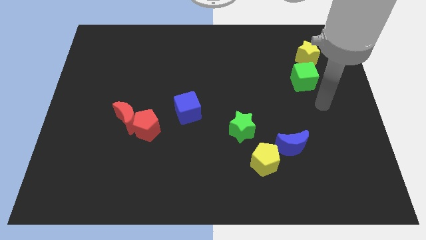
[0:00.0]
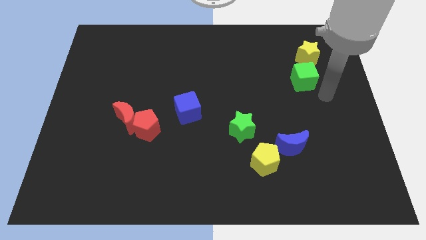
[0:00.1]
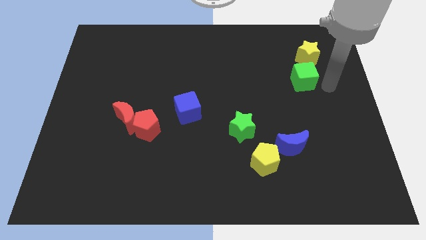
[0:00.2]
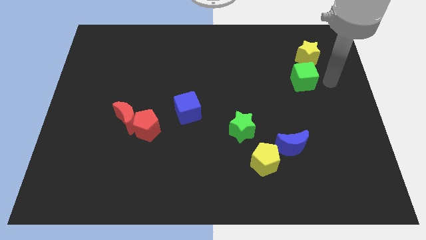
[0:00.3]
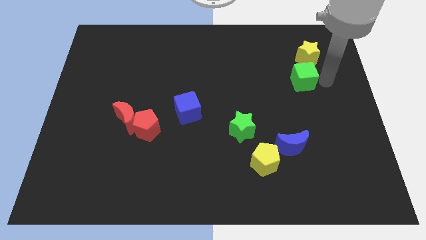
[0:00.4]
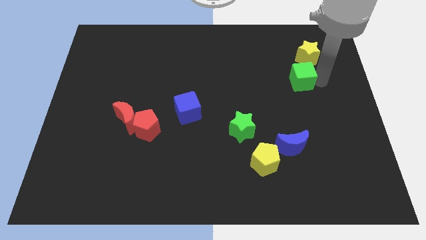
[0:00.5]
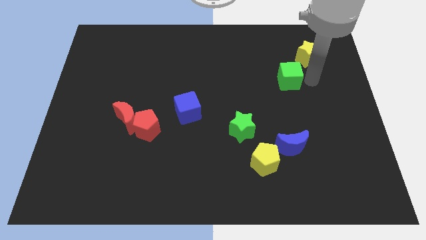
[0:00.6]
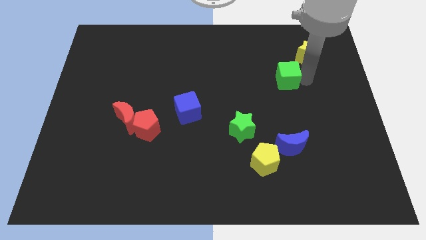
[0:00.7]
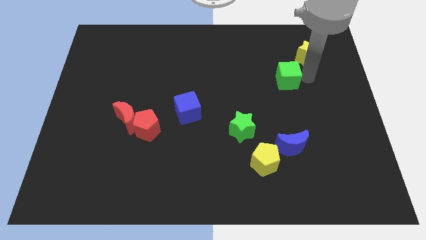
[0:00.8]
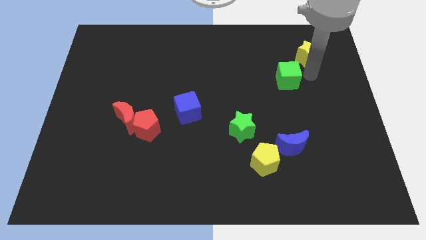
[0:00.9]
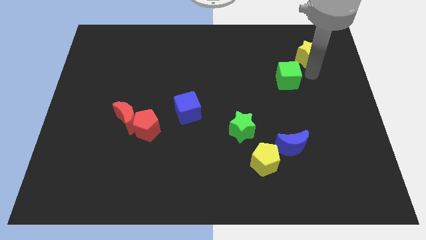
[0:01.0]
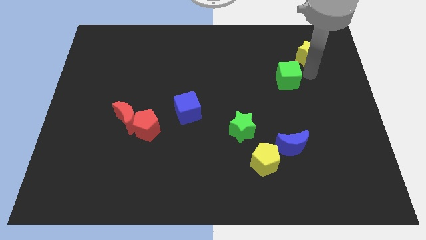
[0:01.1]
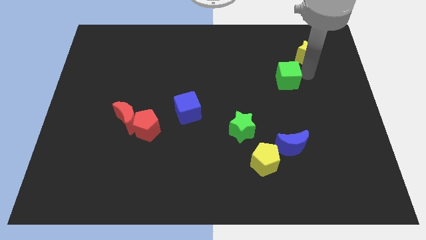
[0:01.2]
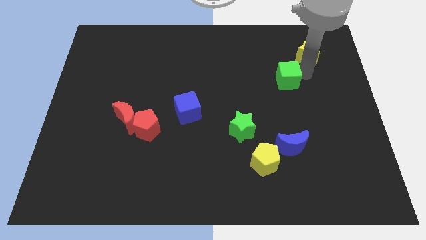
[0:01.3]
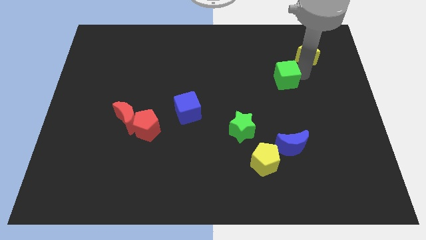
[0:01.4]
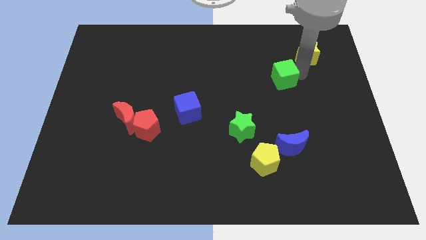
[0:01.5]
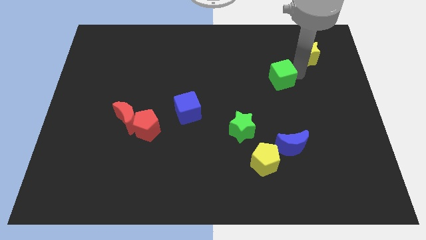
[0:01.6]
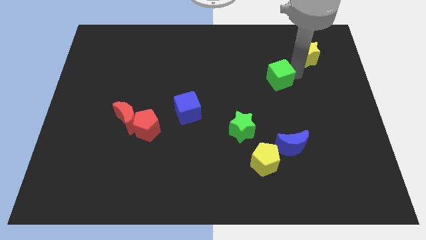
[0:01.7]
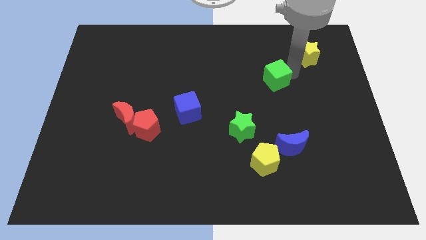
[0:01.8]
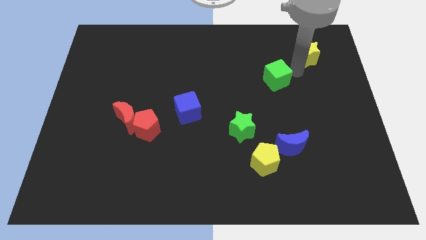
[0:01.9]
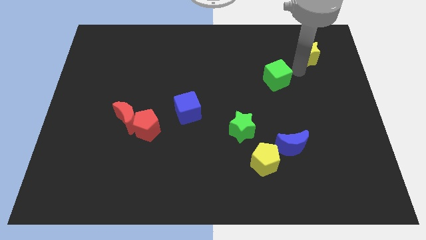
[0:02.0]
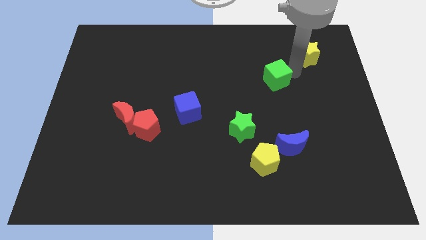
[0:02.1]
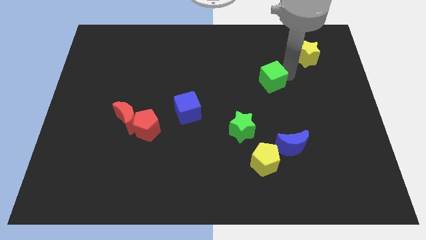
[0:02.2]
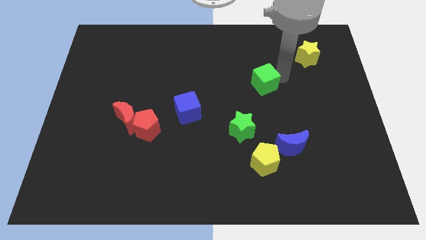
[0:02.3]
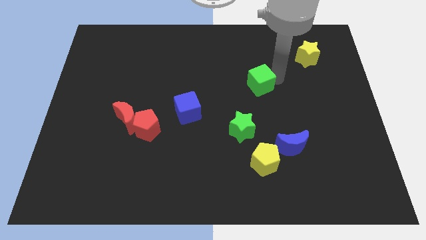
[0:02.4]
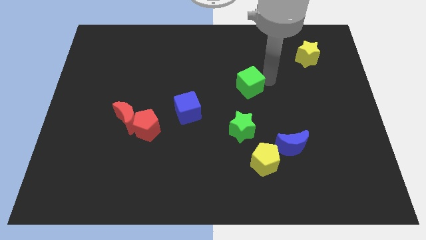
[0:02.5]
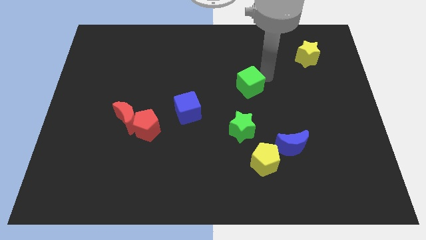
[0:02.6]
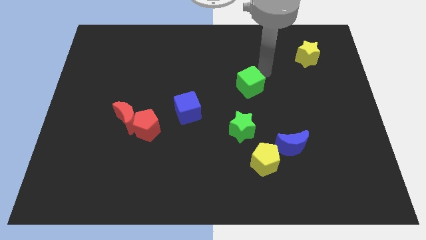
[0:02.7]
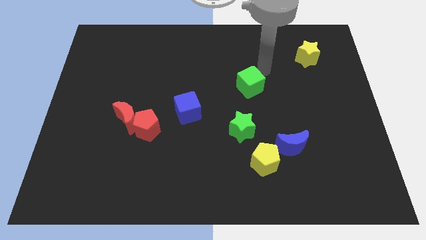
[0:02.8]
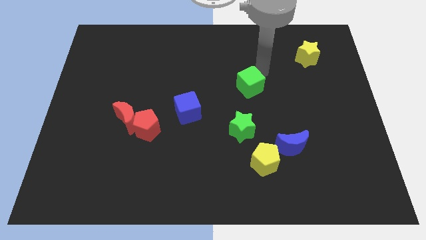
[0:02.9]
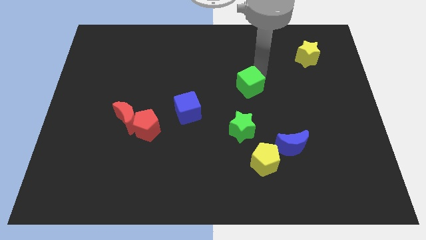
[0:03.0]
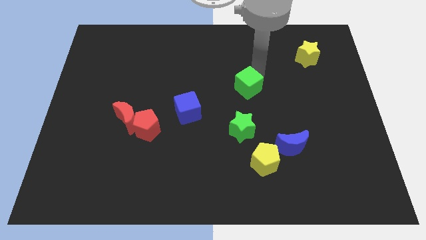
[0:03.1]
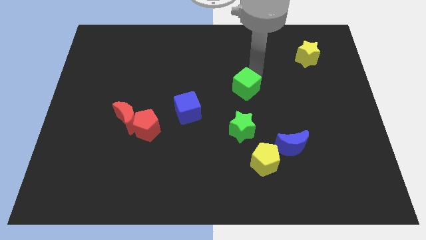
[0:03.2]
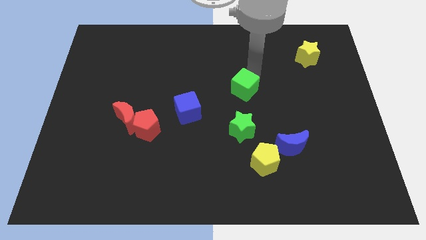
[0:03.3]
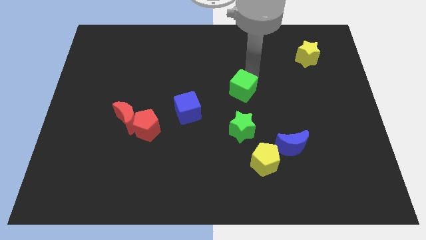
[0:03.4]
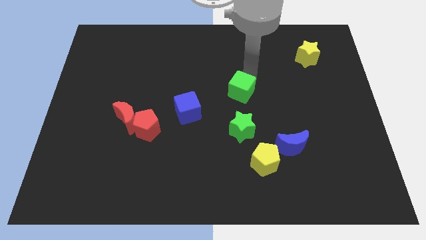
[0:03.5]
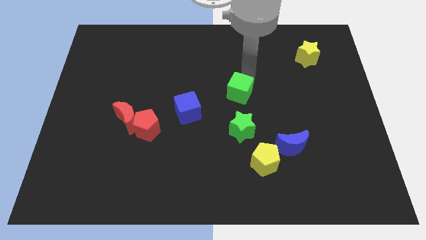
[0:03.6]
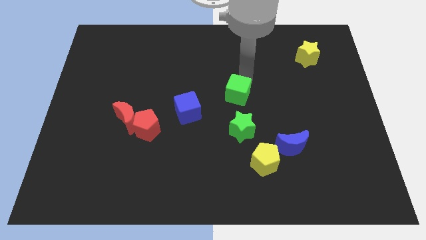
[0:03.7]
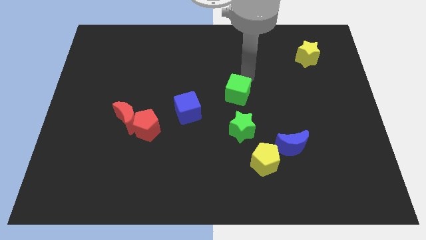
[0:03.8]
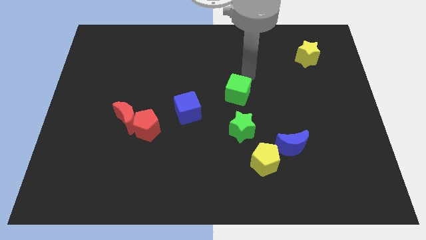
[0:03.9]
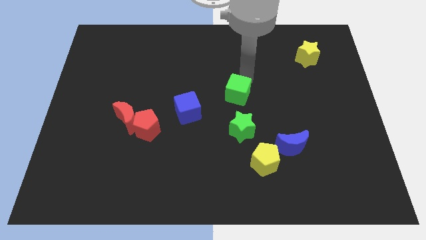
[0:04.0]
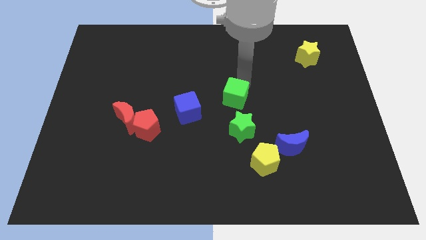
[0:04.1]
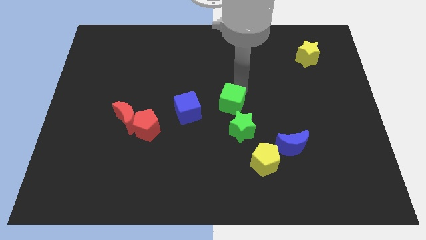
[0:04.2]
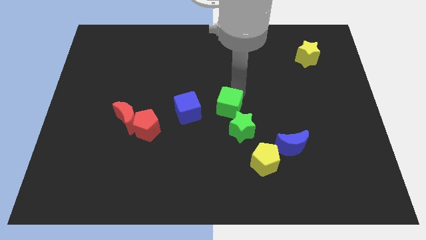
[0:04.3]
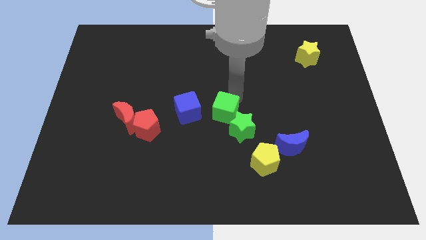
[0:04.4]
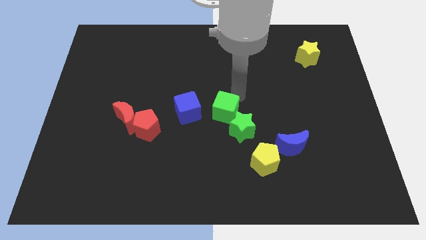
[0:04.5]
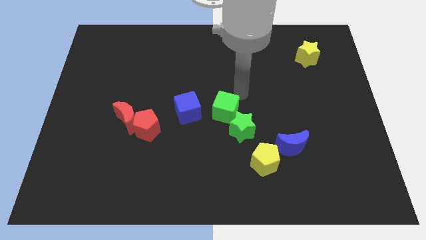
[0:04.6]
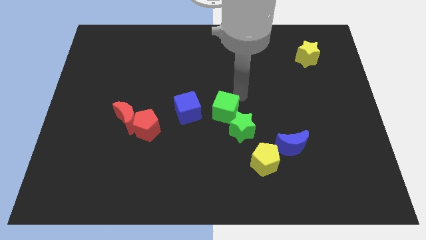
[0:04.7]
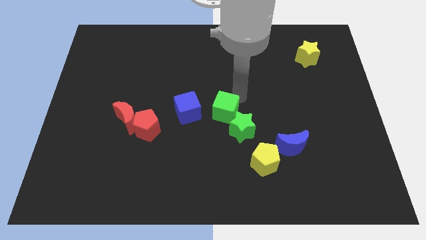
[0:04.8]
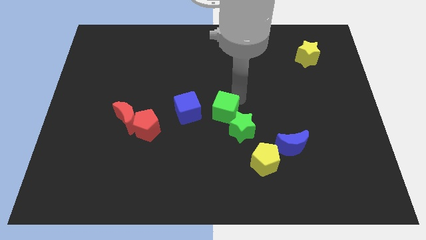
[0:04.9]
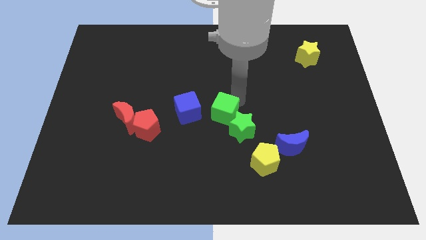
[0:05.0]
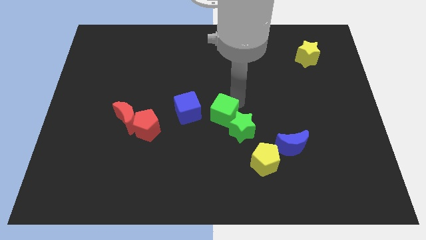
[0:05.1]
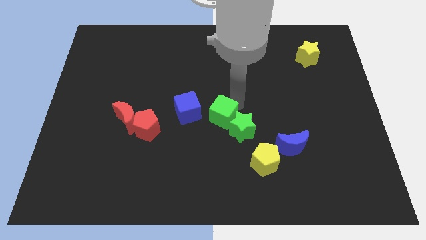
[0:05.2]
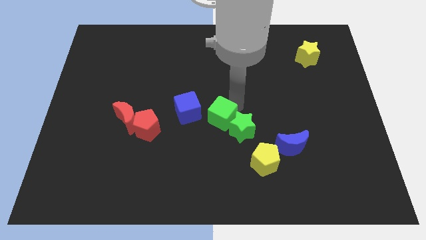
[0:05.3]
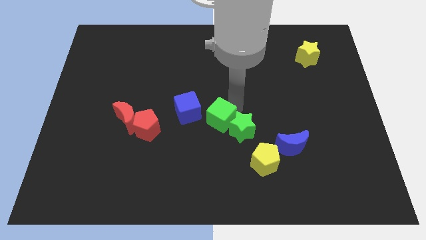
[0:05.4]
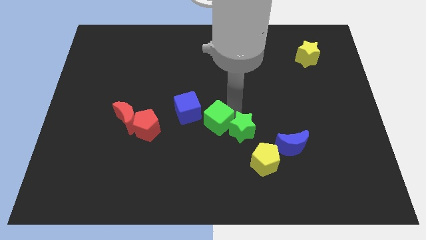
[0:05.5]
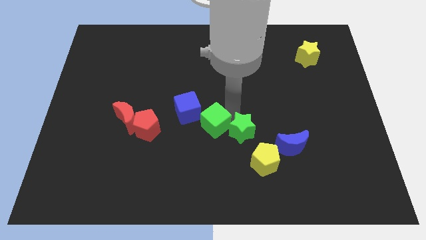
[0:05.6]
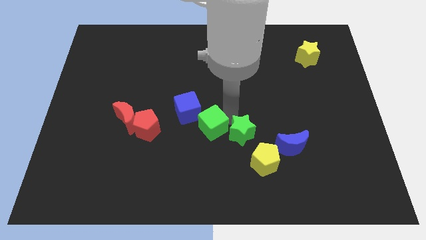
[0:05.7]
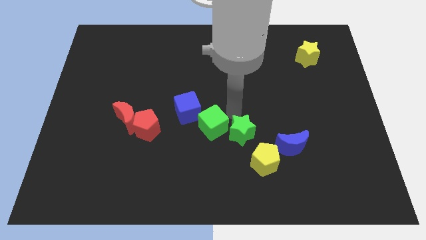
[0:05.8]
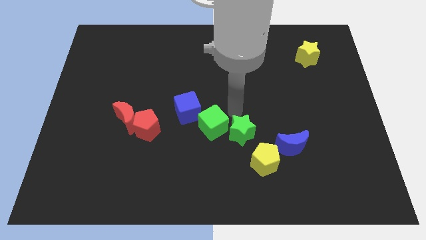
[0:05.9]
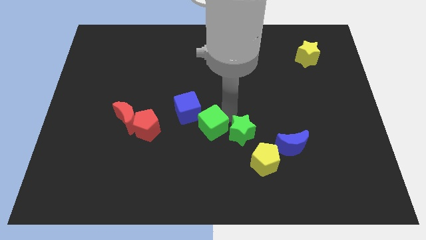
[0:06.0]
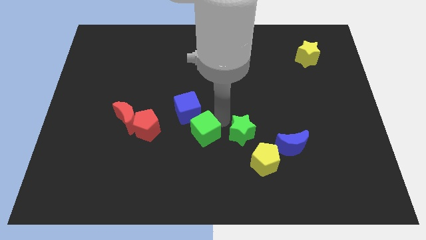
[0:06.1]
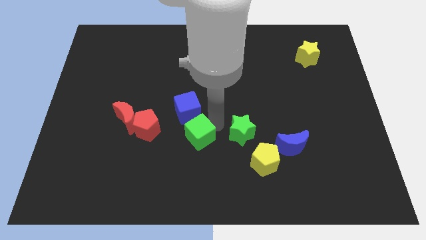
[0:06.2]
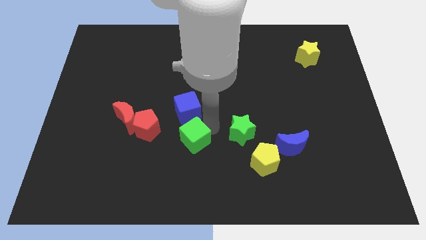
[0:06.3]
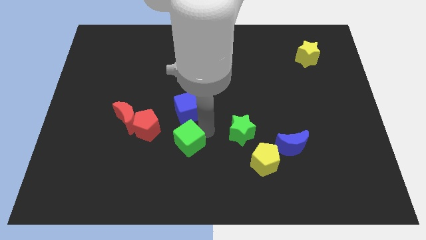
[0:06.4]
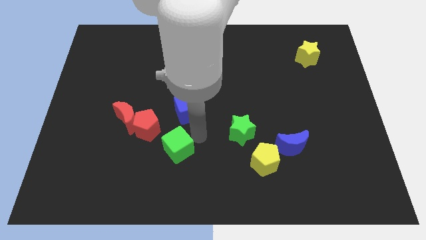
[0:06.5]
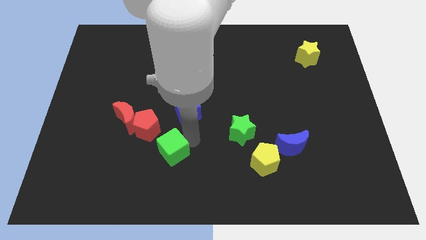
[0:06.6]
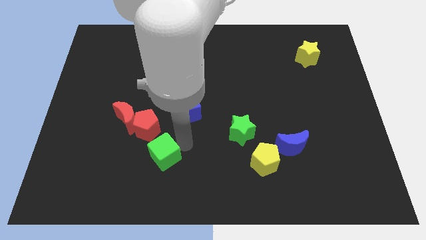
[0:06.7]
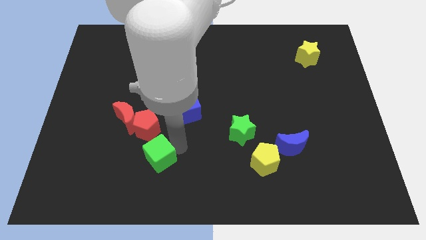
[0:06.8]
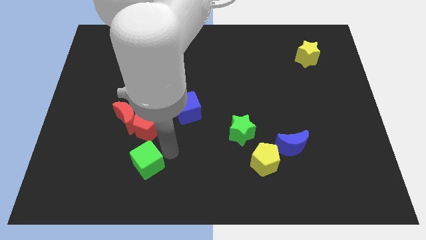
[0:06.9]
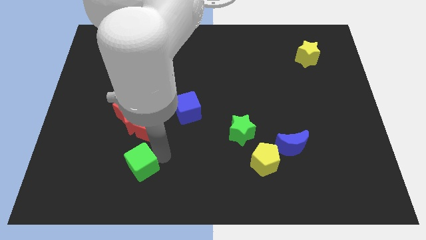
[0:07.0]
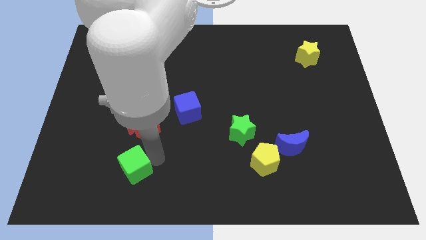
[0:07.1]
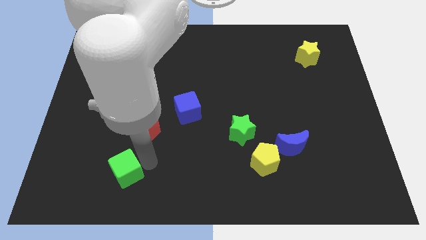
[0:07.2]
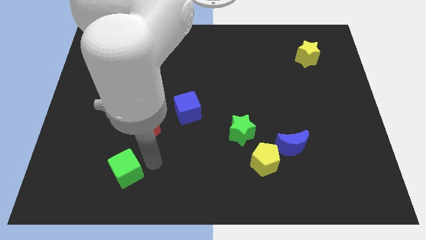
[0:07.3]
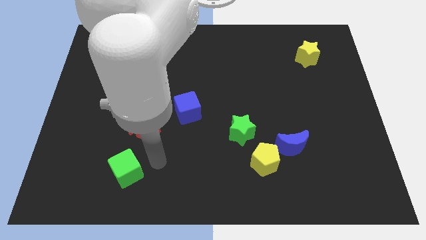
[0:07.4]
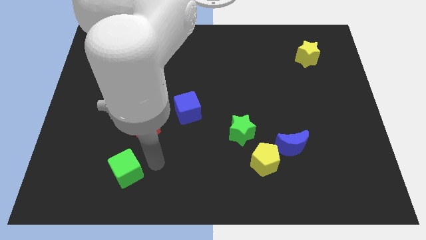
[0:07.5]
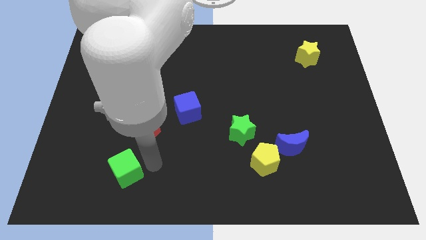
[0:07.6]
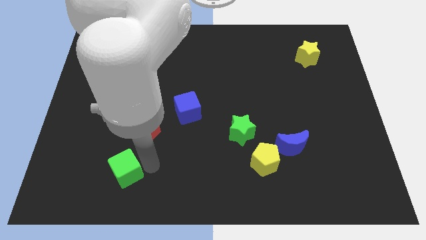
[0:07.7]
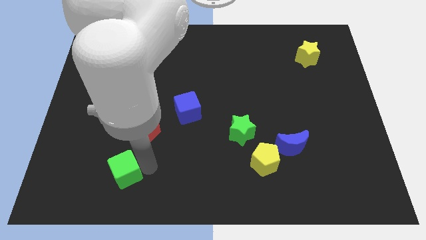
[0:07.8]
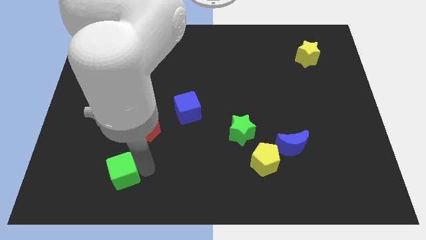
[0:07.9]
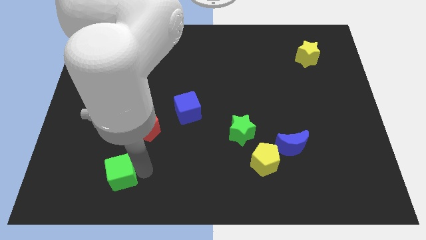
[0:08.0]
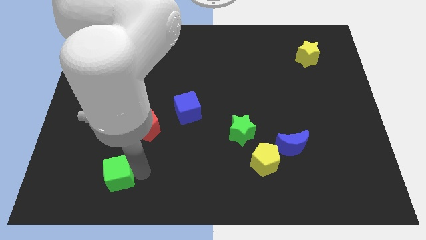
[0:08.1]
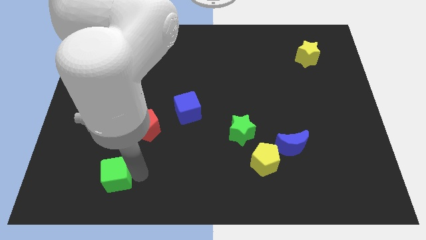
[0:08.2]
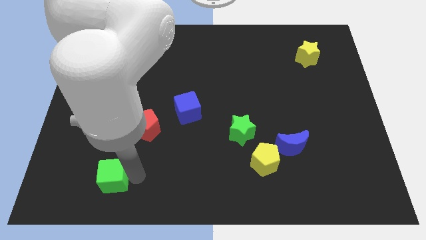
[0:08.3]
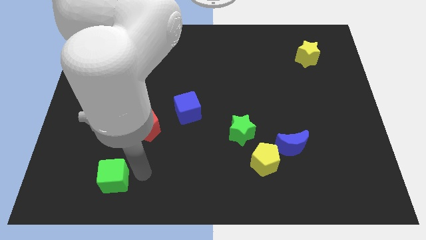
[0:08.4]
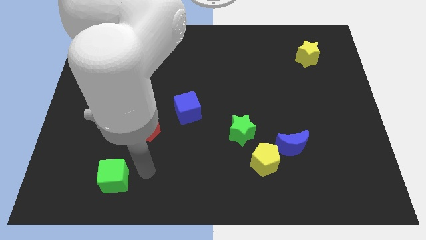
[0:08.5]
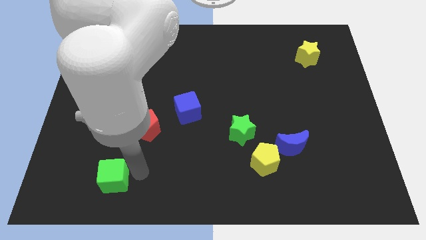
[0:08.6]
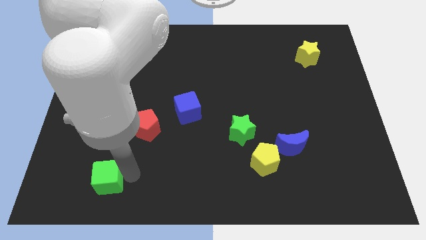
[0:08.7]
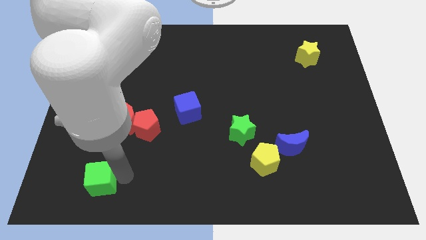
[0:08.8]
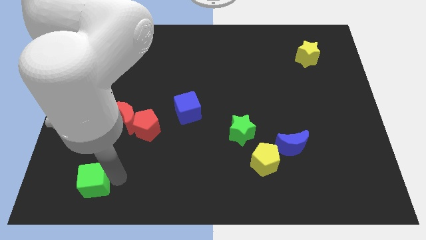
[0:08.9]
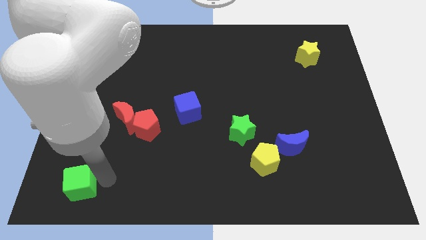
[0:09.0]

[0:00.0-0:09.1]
push the green cube to the bottom left
